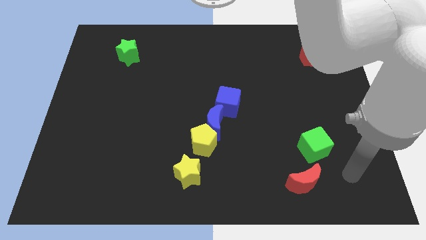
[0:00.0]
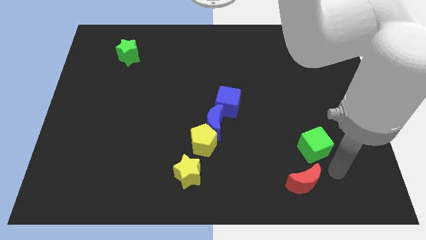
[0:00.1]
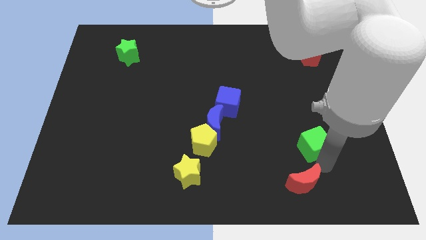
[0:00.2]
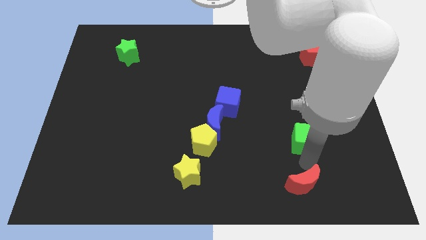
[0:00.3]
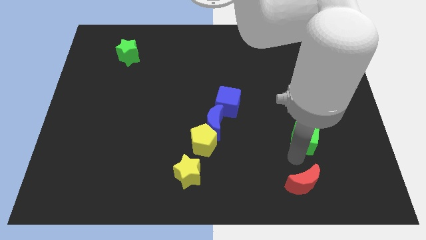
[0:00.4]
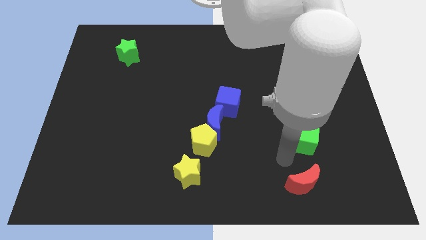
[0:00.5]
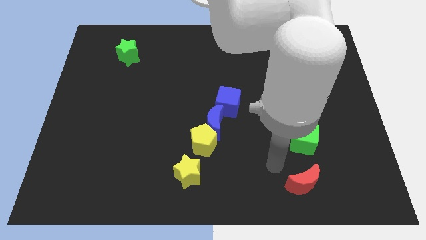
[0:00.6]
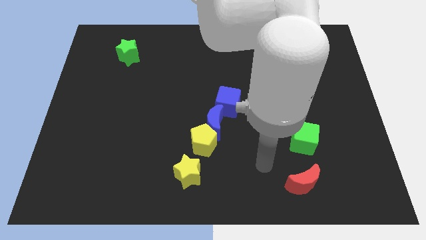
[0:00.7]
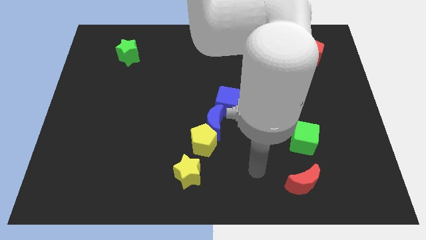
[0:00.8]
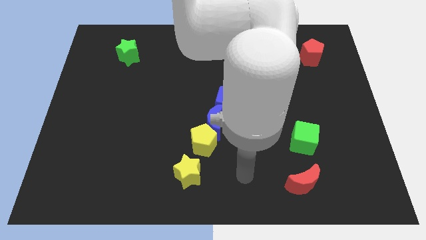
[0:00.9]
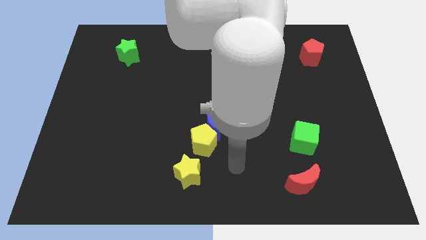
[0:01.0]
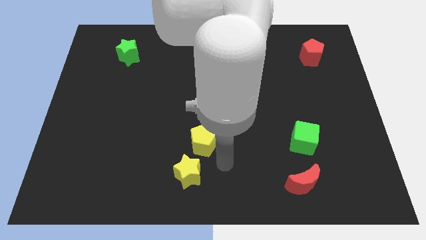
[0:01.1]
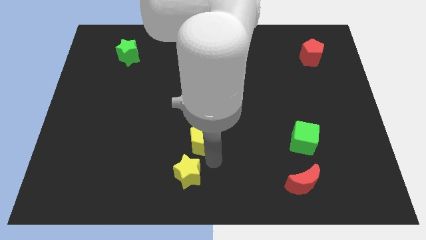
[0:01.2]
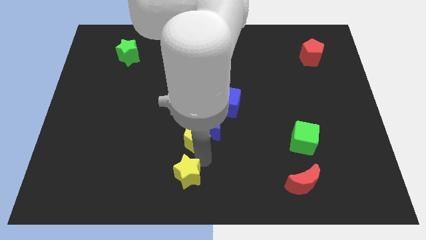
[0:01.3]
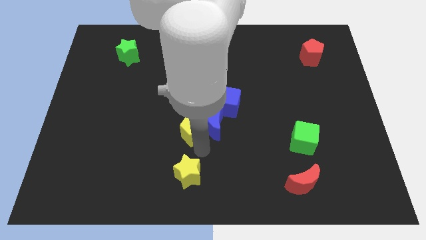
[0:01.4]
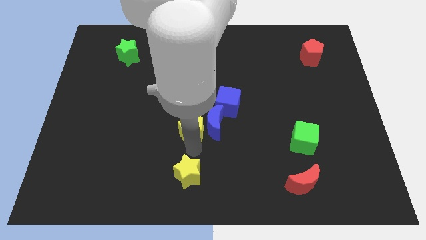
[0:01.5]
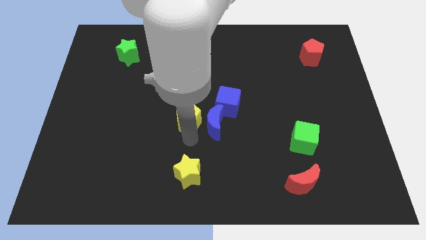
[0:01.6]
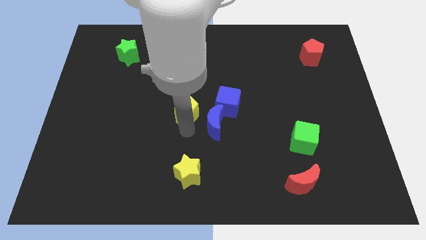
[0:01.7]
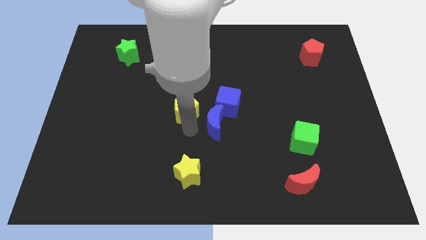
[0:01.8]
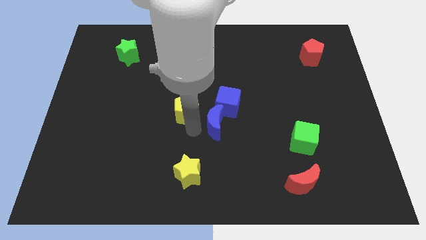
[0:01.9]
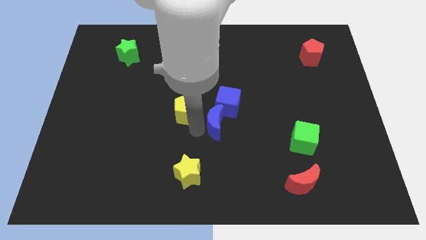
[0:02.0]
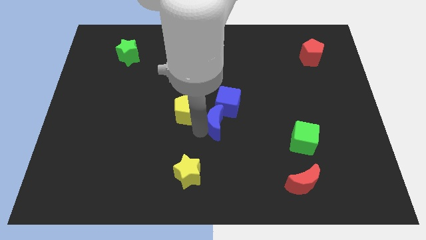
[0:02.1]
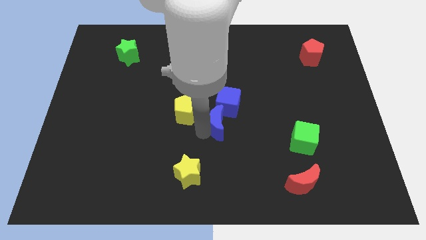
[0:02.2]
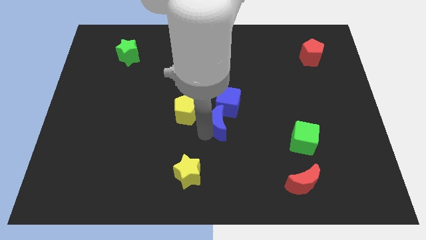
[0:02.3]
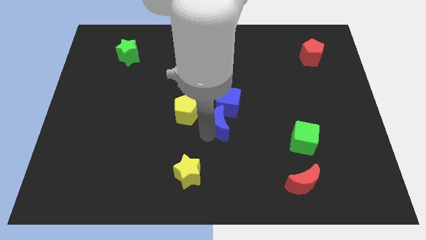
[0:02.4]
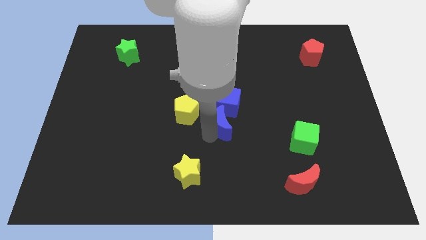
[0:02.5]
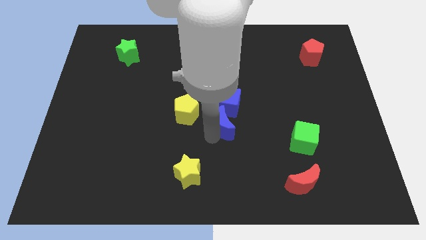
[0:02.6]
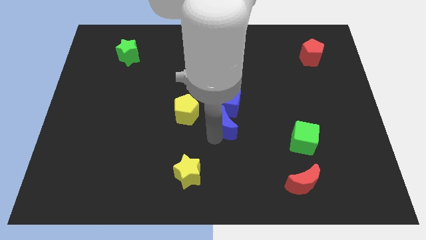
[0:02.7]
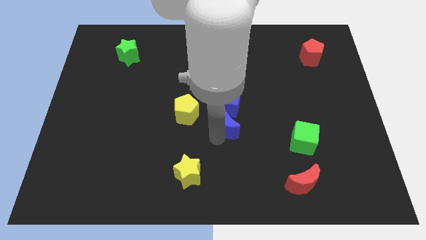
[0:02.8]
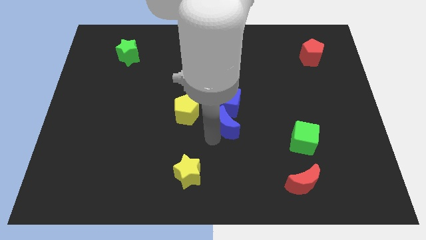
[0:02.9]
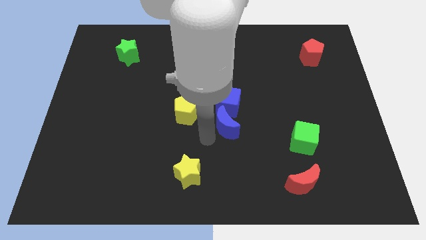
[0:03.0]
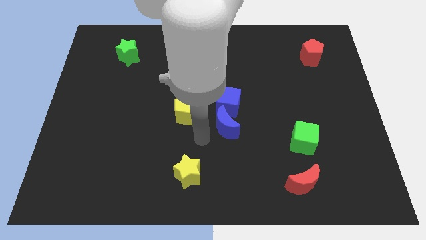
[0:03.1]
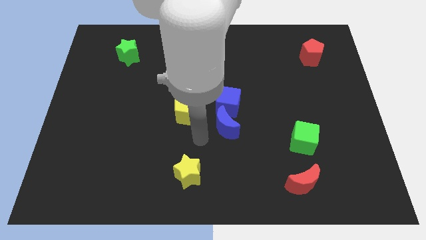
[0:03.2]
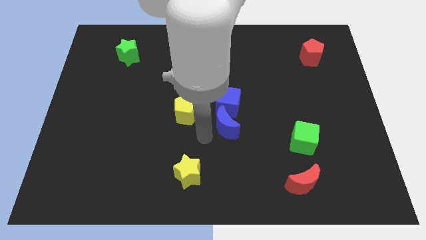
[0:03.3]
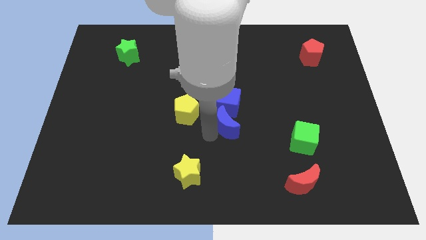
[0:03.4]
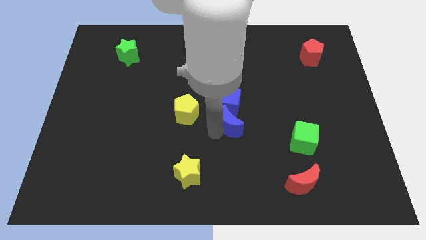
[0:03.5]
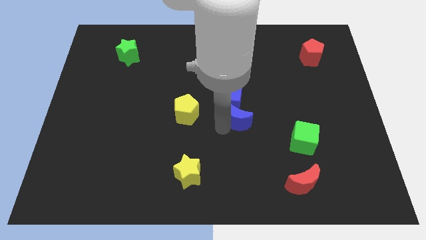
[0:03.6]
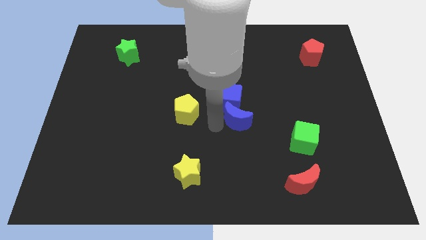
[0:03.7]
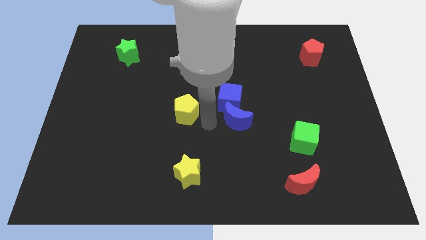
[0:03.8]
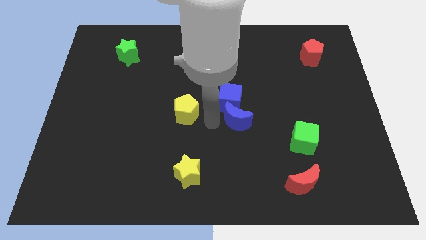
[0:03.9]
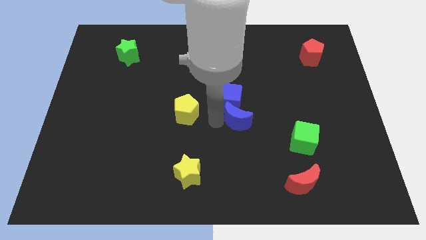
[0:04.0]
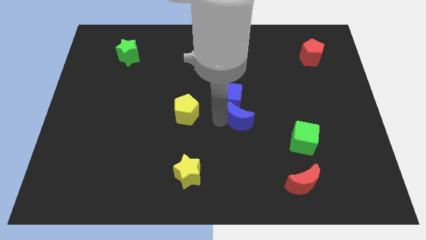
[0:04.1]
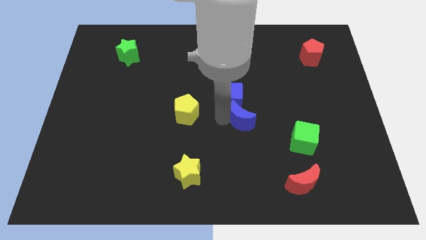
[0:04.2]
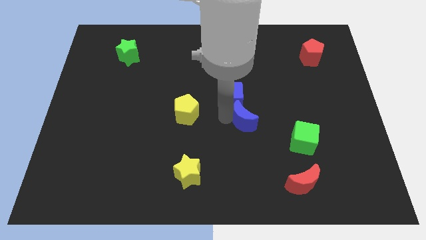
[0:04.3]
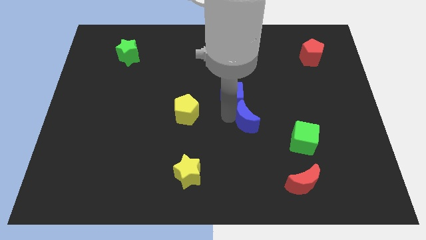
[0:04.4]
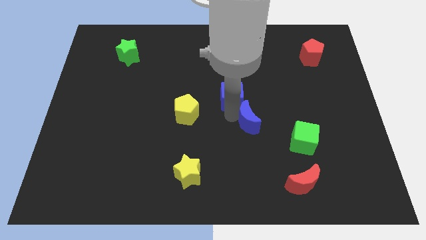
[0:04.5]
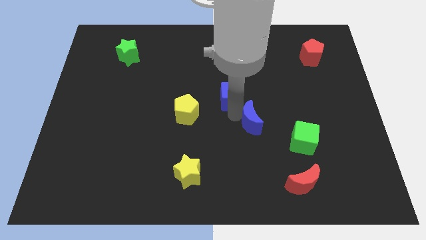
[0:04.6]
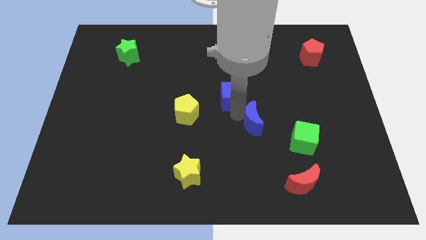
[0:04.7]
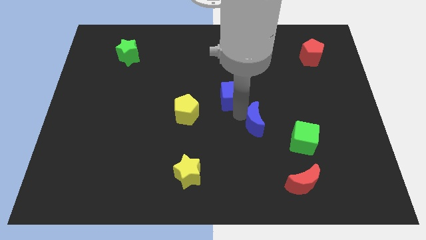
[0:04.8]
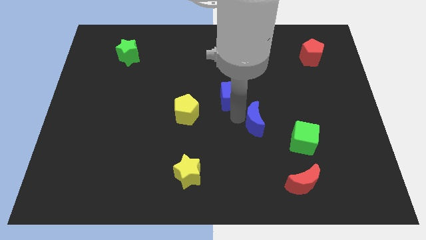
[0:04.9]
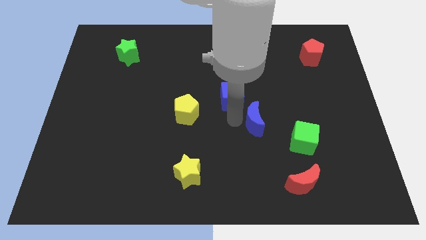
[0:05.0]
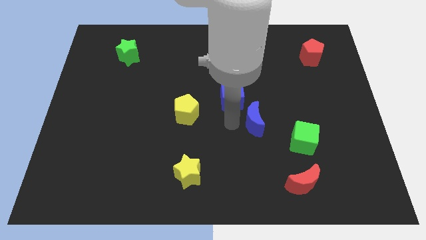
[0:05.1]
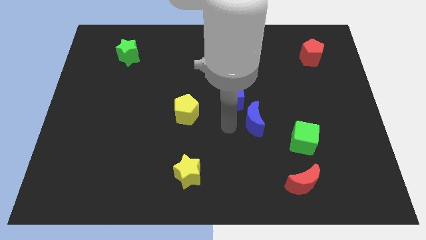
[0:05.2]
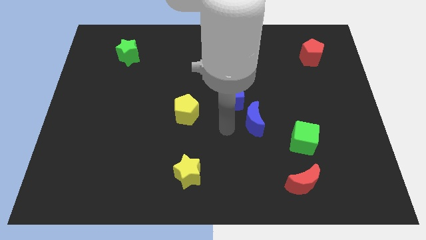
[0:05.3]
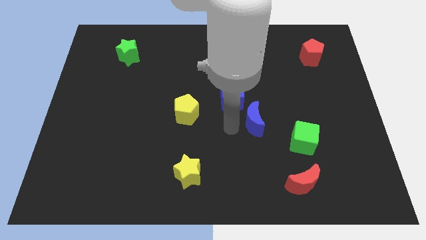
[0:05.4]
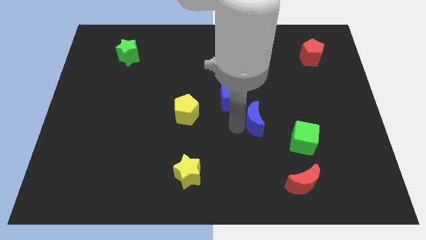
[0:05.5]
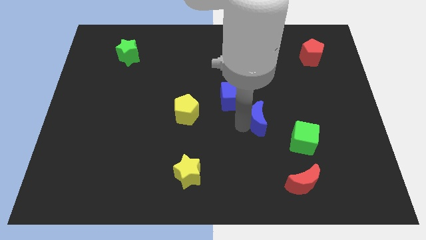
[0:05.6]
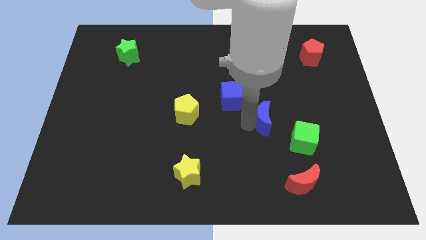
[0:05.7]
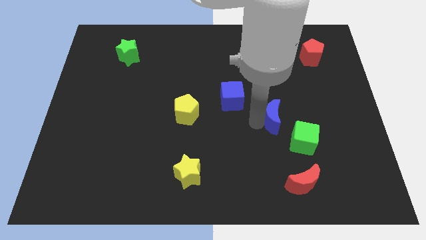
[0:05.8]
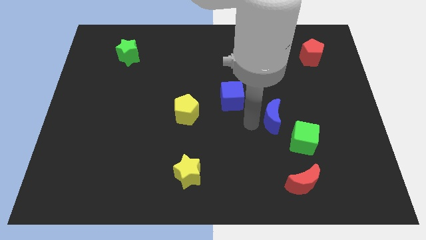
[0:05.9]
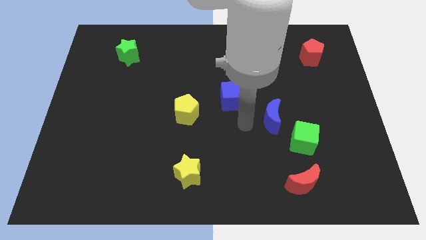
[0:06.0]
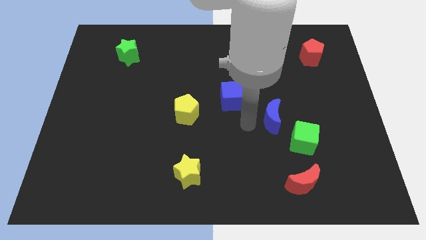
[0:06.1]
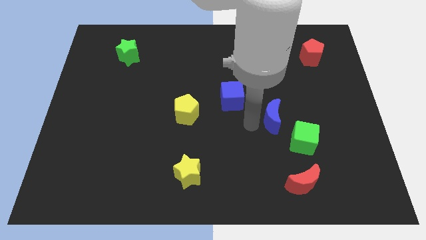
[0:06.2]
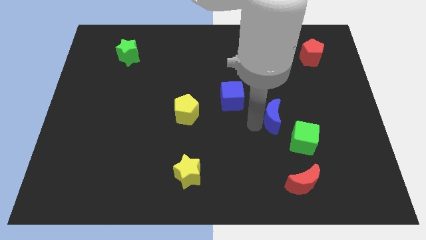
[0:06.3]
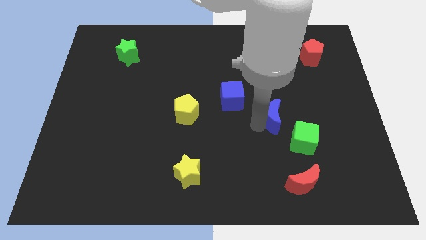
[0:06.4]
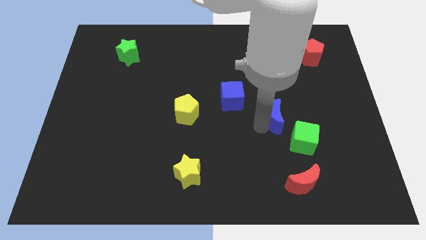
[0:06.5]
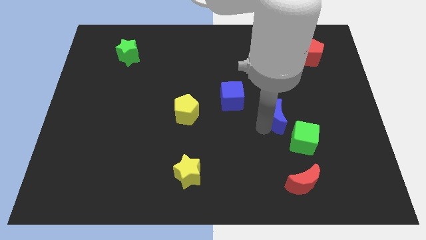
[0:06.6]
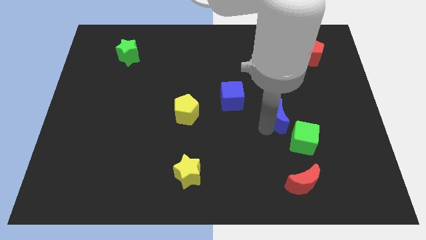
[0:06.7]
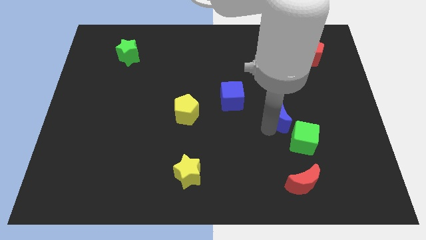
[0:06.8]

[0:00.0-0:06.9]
put the blue moon to the top side of the green cube

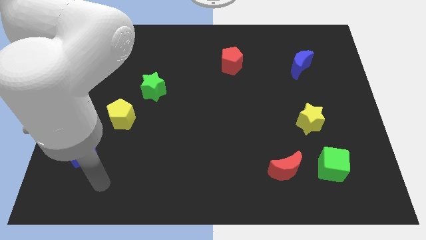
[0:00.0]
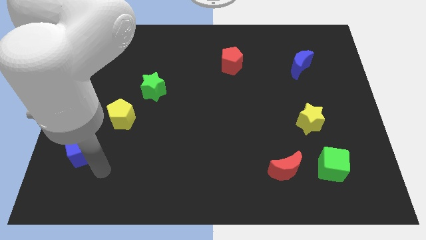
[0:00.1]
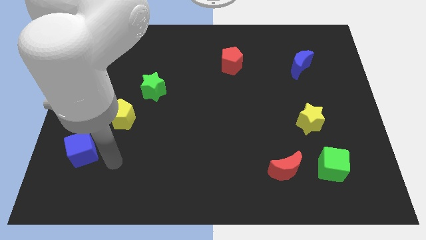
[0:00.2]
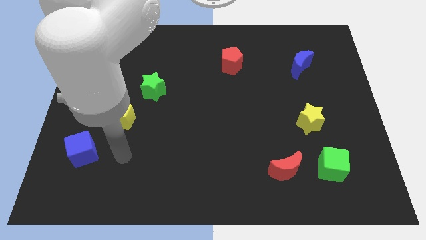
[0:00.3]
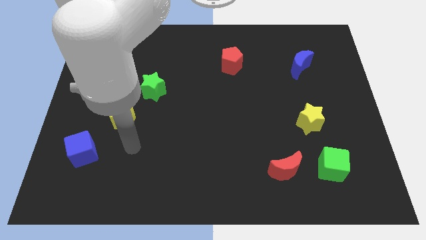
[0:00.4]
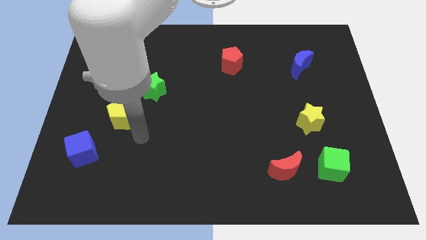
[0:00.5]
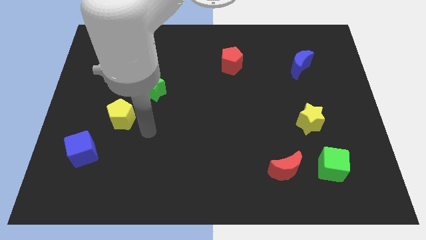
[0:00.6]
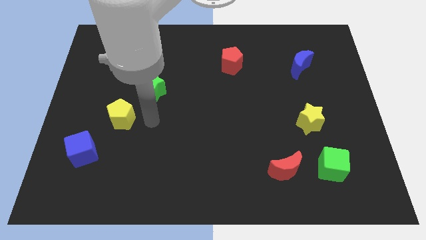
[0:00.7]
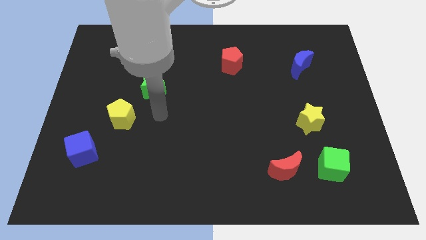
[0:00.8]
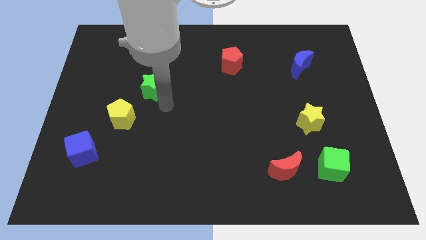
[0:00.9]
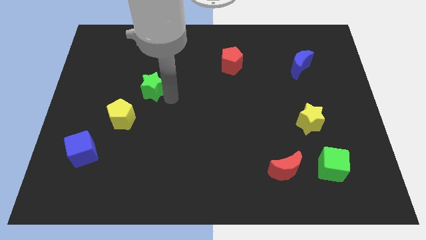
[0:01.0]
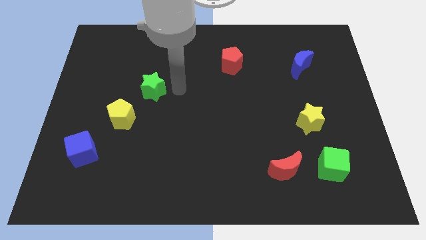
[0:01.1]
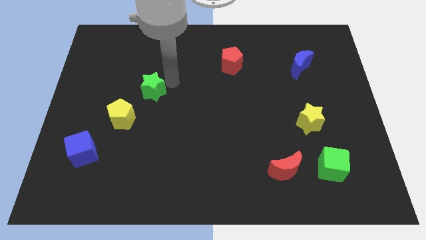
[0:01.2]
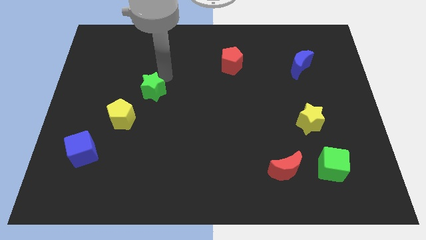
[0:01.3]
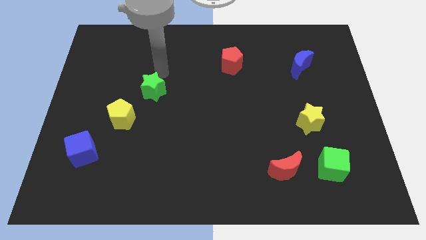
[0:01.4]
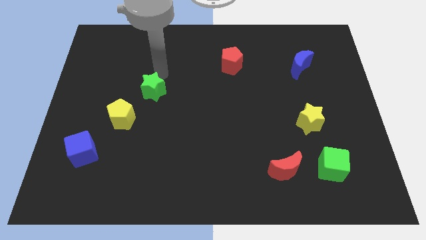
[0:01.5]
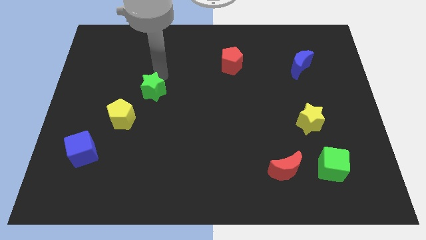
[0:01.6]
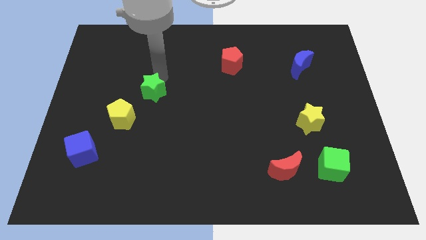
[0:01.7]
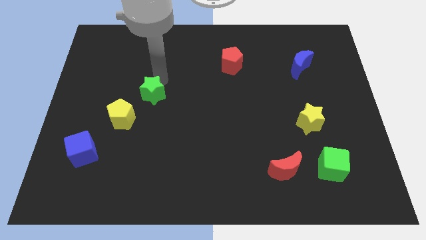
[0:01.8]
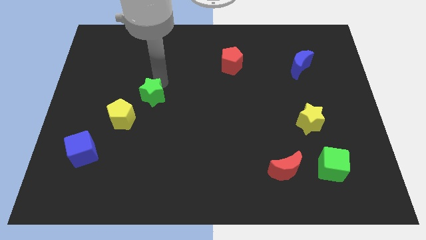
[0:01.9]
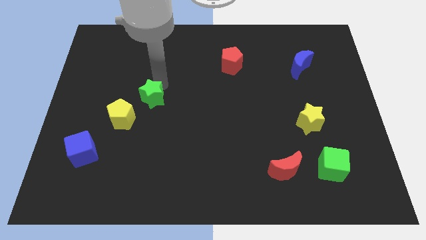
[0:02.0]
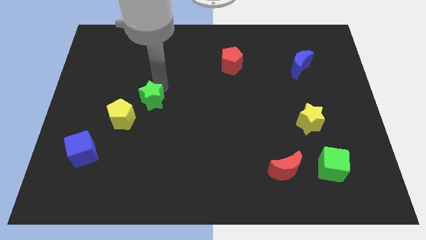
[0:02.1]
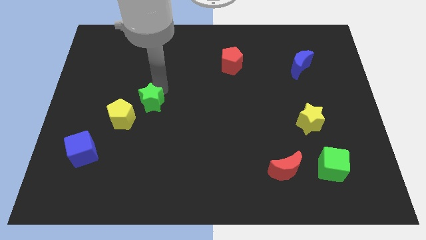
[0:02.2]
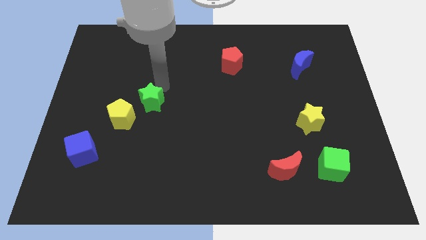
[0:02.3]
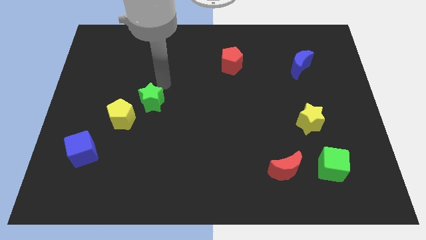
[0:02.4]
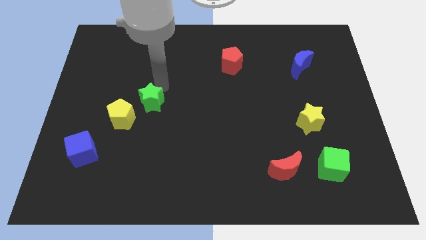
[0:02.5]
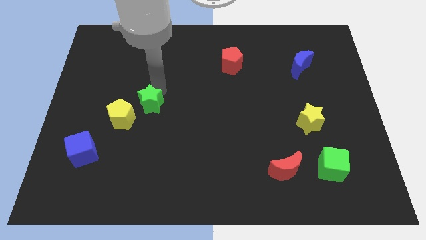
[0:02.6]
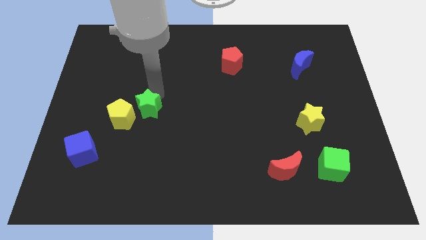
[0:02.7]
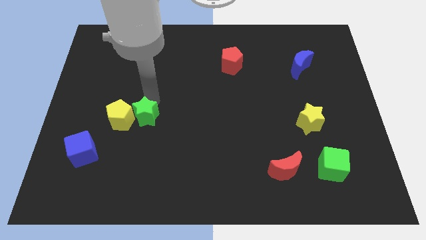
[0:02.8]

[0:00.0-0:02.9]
slide the green star diagonally down and to the right of the yellow pentagon
